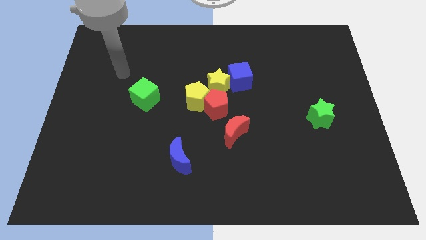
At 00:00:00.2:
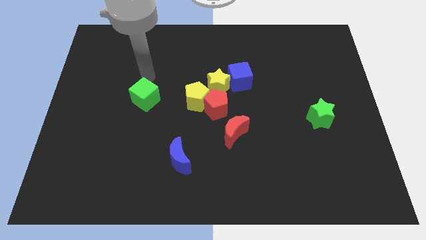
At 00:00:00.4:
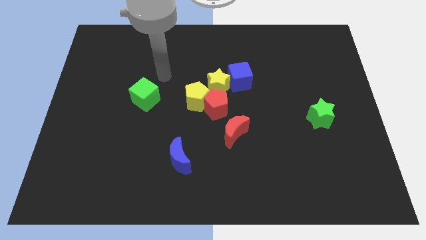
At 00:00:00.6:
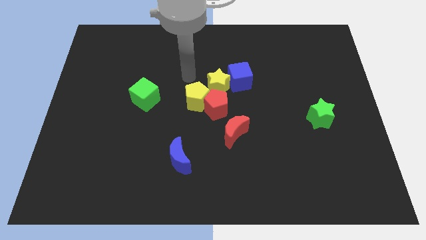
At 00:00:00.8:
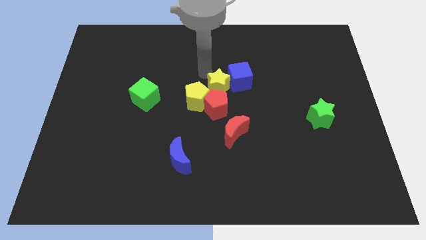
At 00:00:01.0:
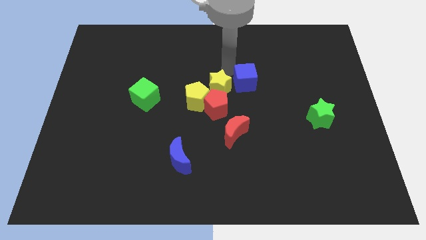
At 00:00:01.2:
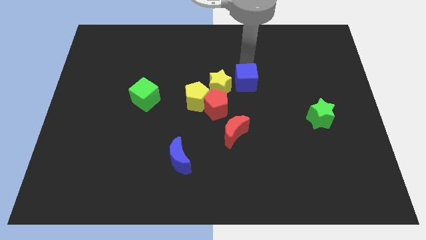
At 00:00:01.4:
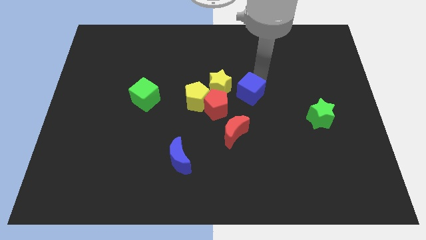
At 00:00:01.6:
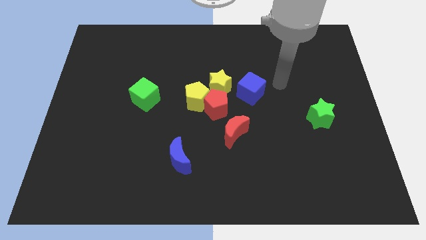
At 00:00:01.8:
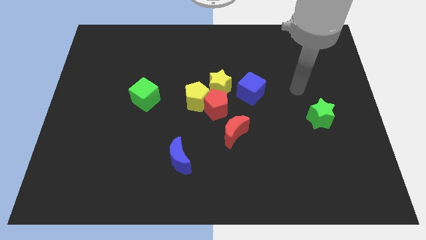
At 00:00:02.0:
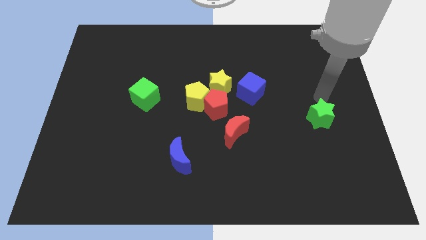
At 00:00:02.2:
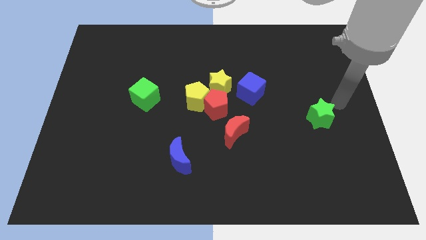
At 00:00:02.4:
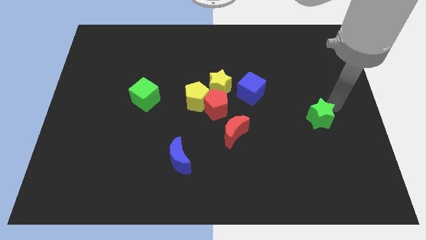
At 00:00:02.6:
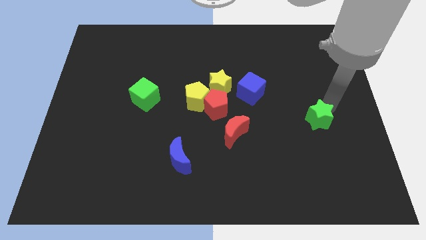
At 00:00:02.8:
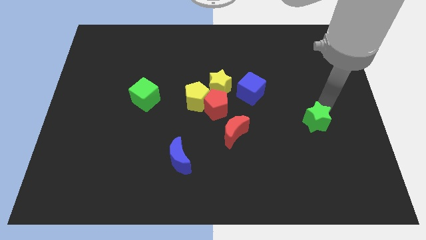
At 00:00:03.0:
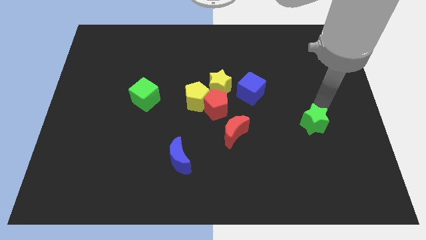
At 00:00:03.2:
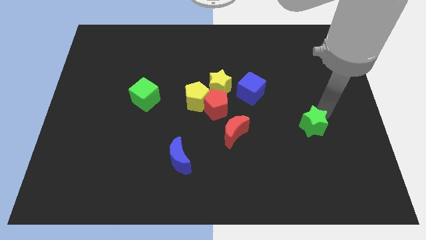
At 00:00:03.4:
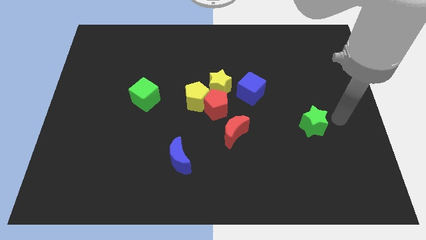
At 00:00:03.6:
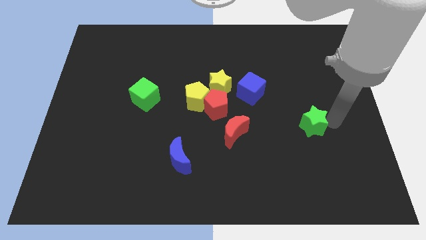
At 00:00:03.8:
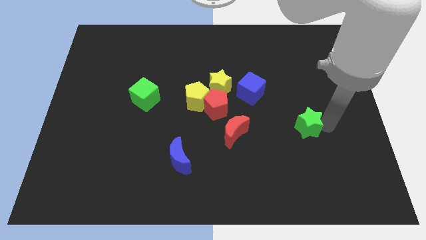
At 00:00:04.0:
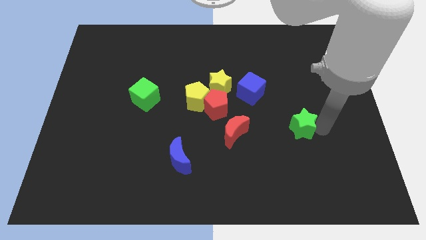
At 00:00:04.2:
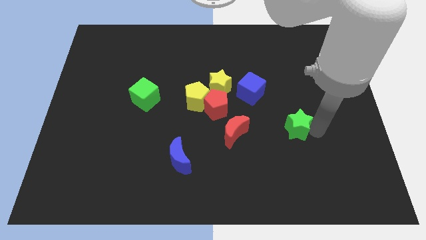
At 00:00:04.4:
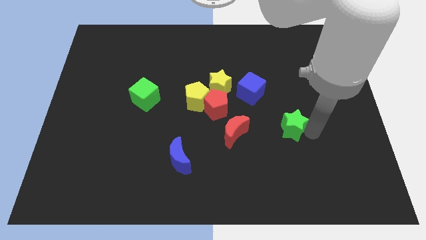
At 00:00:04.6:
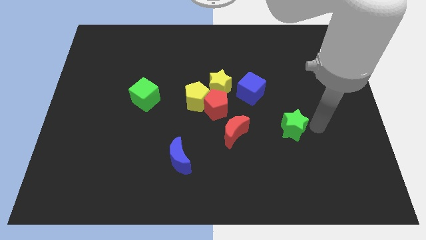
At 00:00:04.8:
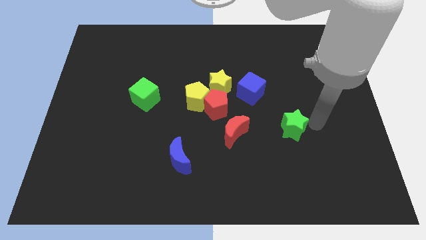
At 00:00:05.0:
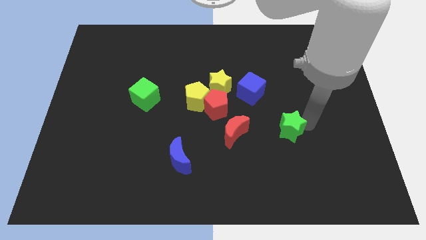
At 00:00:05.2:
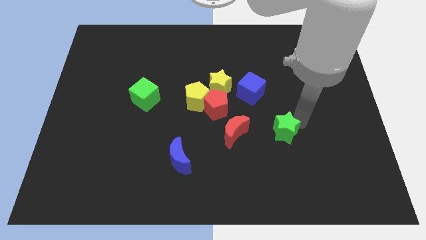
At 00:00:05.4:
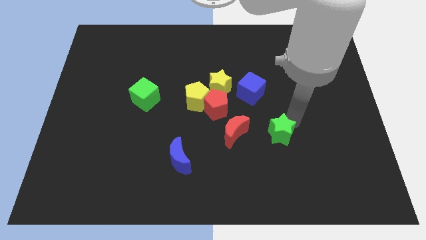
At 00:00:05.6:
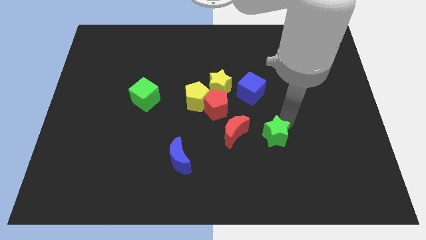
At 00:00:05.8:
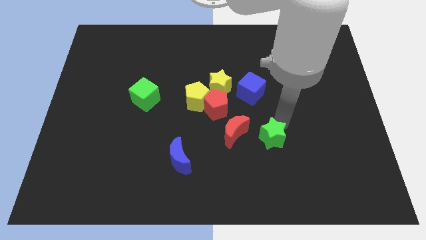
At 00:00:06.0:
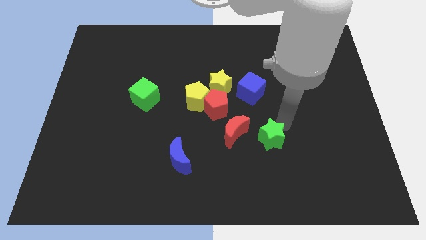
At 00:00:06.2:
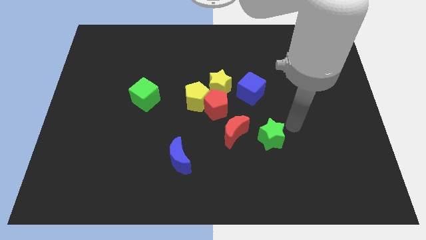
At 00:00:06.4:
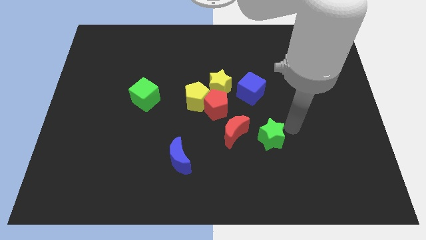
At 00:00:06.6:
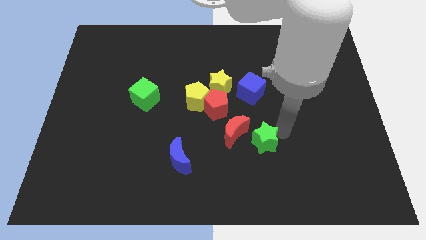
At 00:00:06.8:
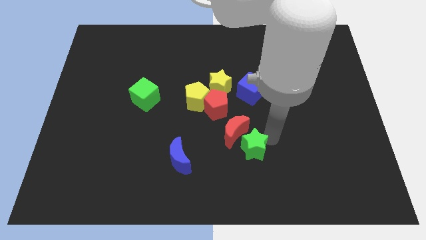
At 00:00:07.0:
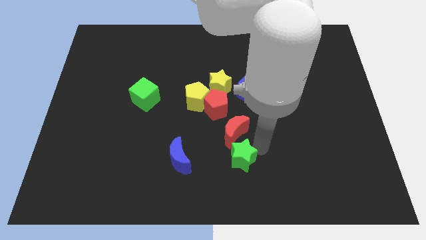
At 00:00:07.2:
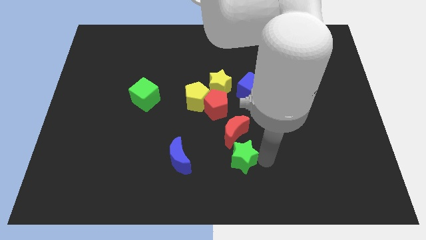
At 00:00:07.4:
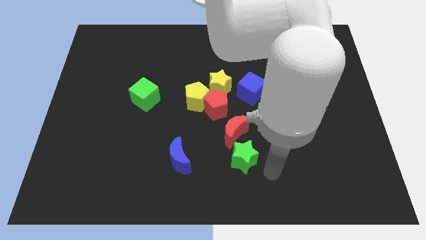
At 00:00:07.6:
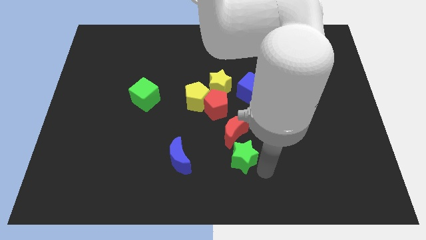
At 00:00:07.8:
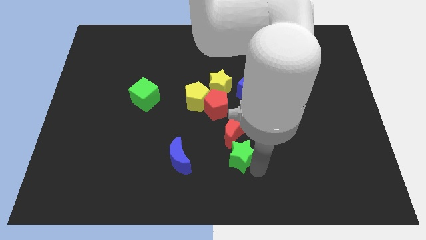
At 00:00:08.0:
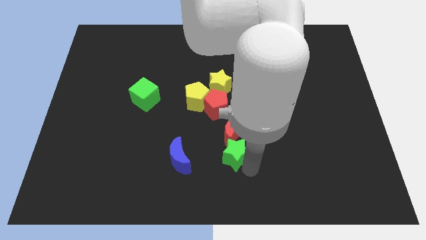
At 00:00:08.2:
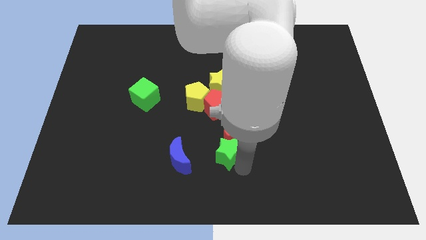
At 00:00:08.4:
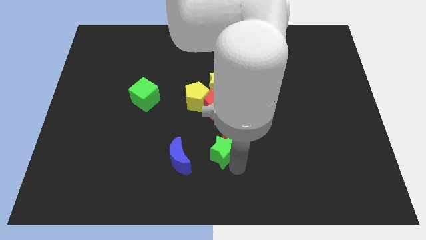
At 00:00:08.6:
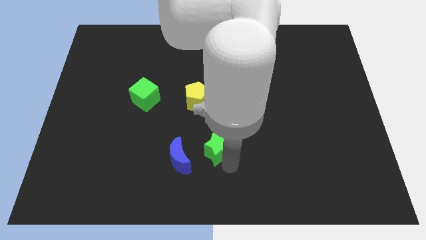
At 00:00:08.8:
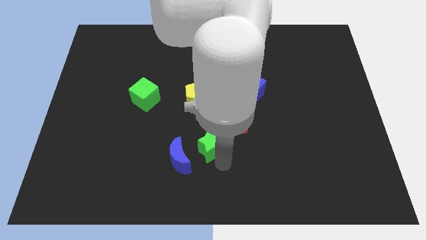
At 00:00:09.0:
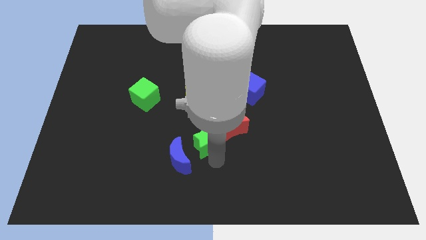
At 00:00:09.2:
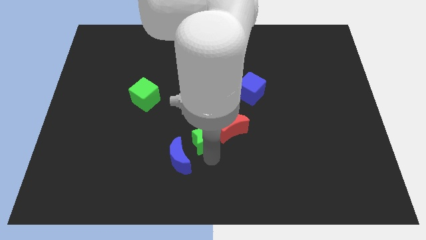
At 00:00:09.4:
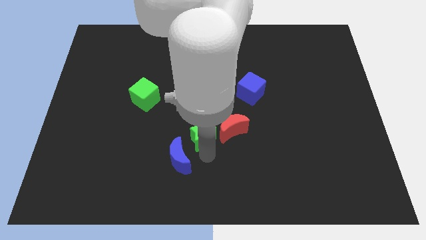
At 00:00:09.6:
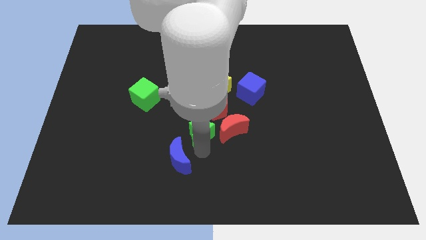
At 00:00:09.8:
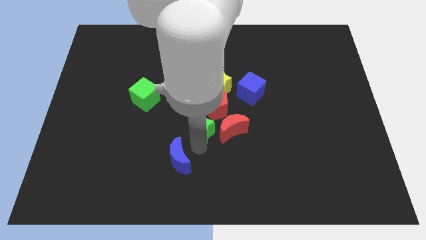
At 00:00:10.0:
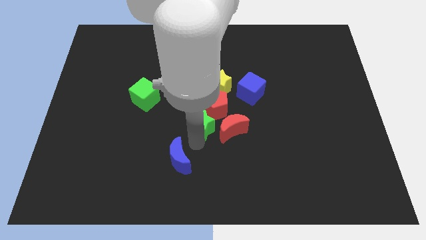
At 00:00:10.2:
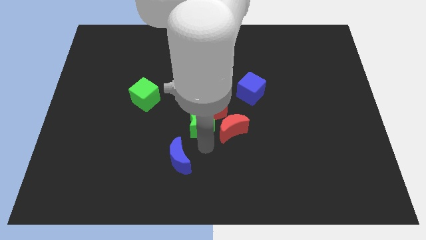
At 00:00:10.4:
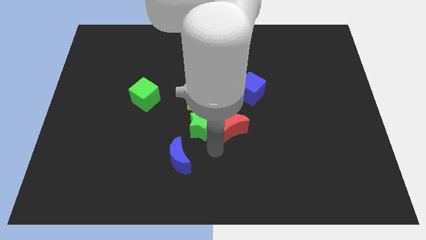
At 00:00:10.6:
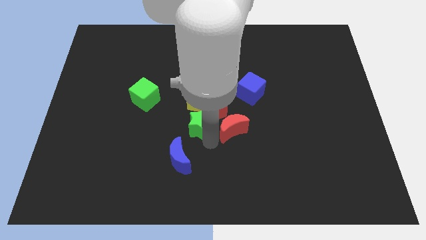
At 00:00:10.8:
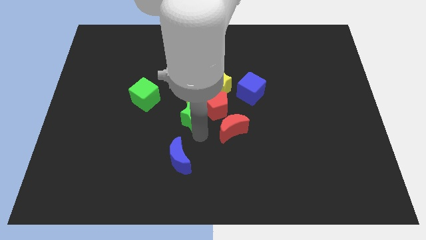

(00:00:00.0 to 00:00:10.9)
push the green star to the yellow pentagon
